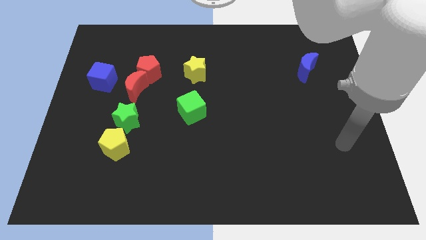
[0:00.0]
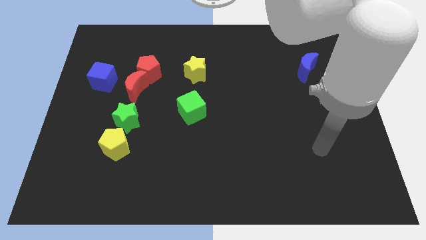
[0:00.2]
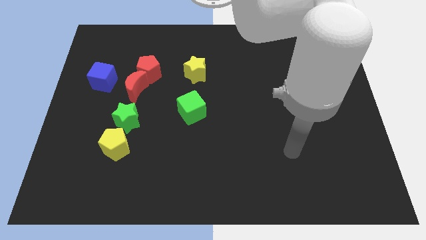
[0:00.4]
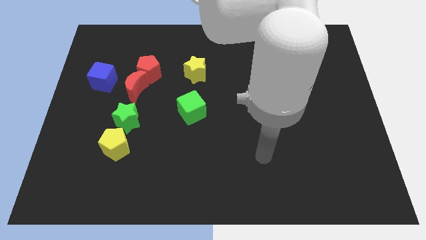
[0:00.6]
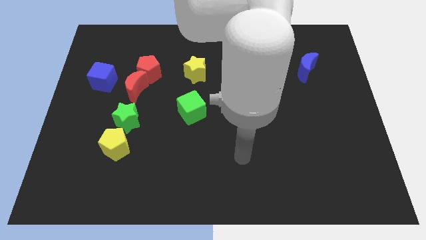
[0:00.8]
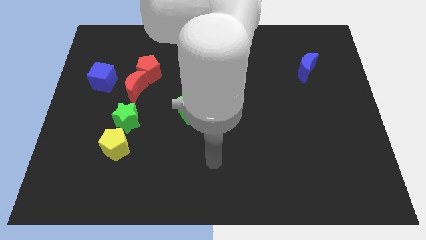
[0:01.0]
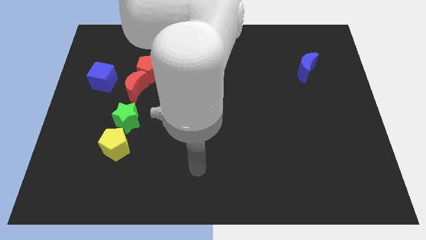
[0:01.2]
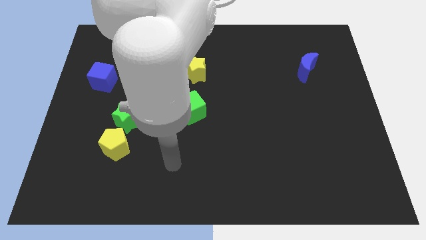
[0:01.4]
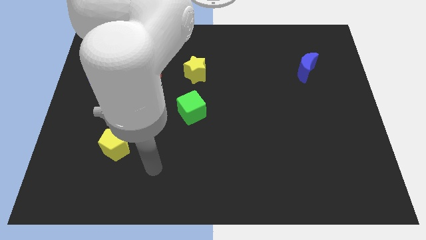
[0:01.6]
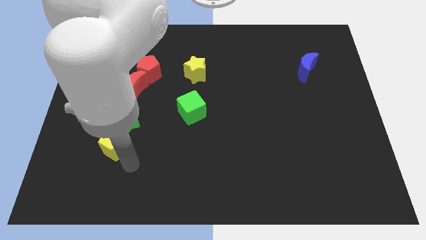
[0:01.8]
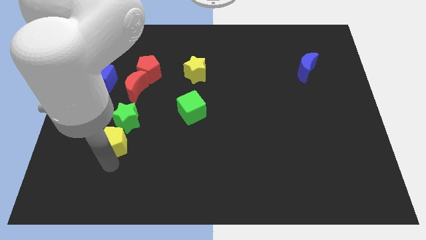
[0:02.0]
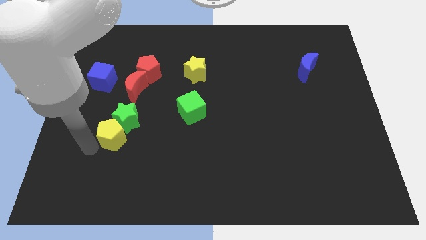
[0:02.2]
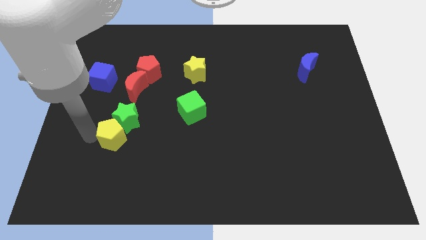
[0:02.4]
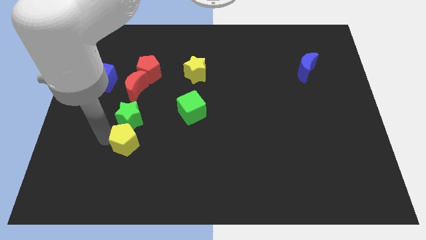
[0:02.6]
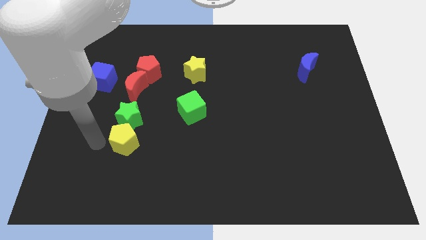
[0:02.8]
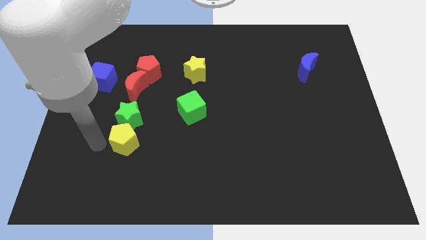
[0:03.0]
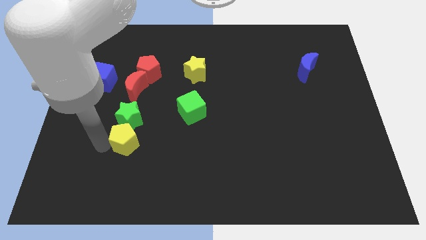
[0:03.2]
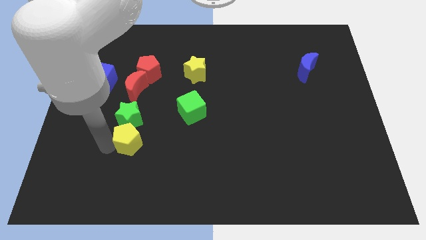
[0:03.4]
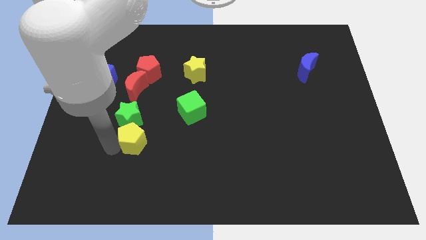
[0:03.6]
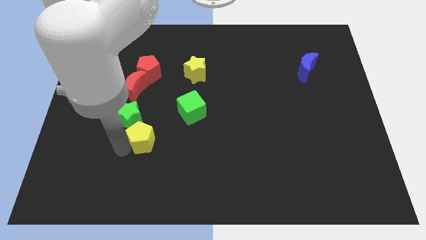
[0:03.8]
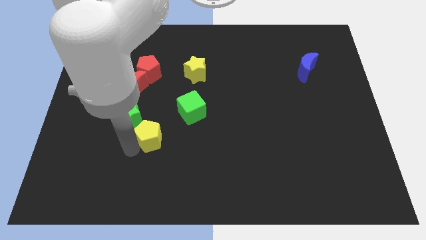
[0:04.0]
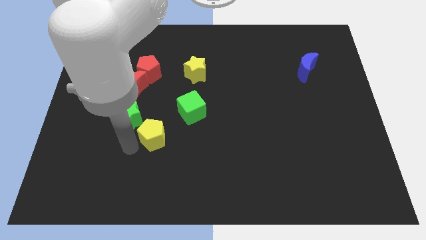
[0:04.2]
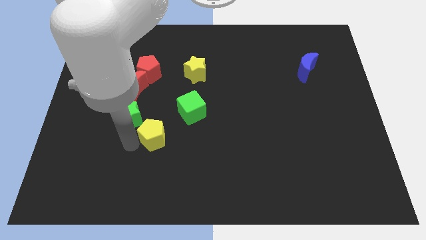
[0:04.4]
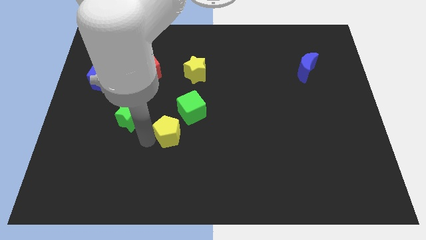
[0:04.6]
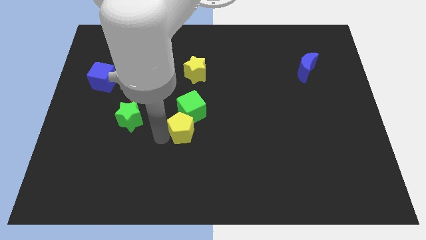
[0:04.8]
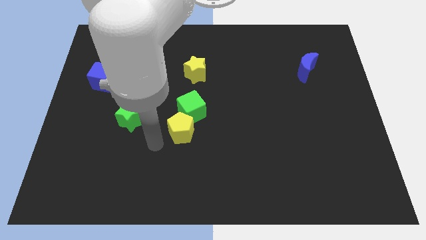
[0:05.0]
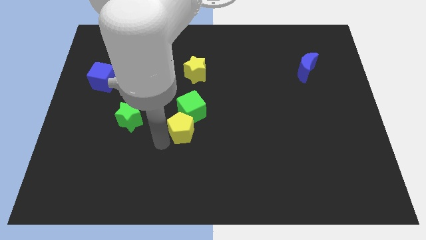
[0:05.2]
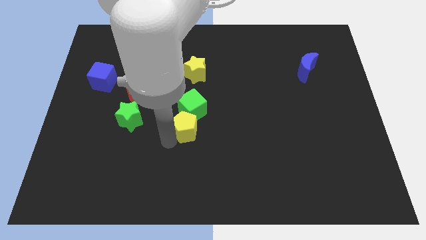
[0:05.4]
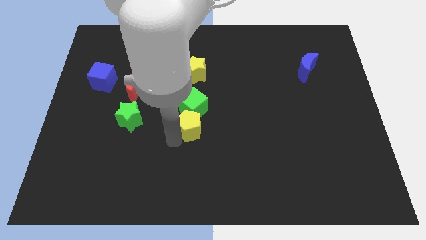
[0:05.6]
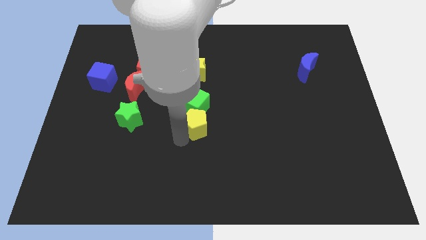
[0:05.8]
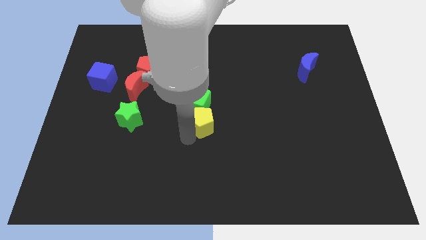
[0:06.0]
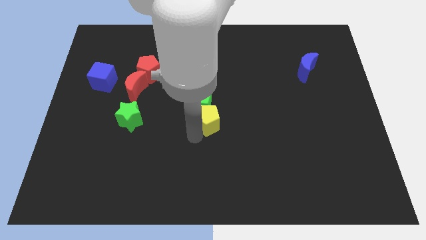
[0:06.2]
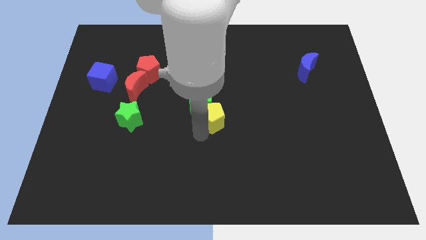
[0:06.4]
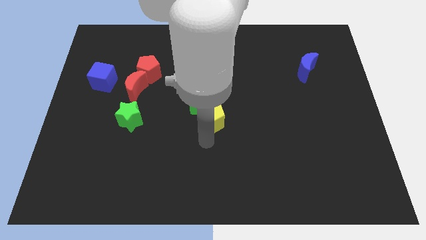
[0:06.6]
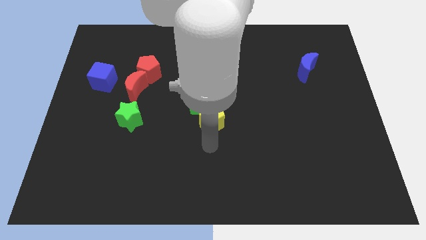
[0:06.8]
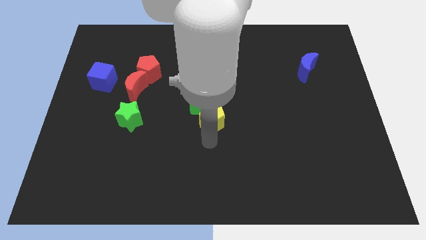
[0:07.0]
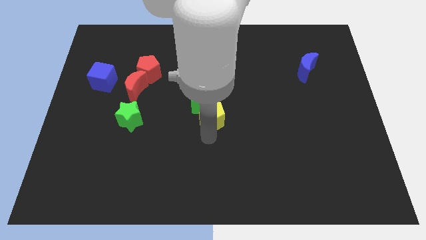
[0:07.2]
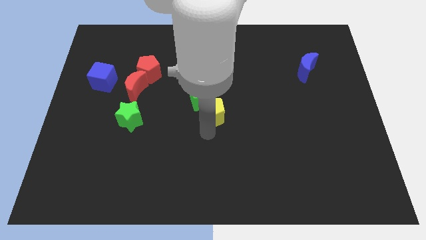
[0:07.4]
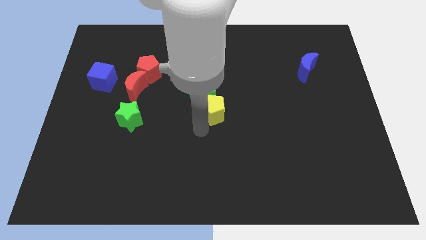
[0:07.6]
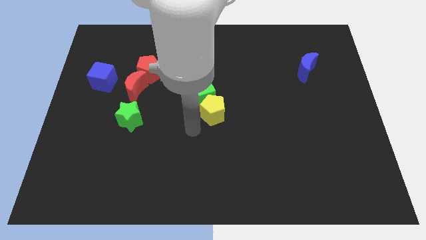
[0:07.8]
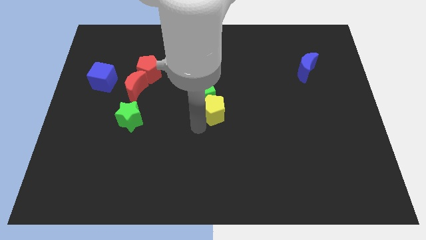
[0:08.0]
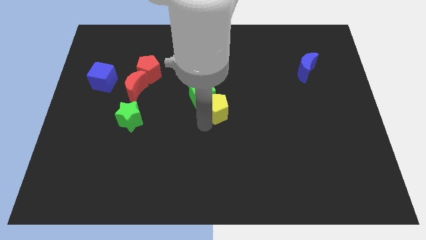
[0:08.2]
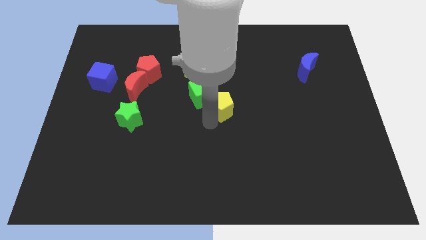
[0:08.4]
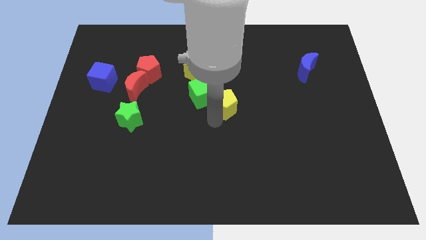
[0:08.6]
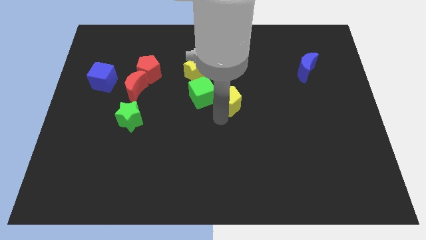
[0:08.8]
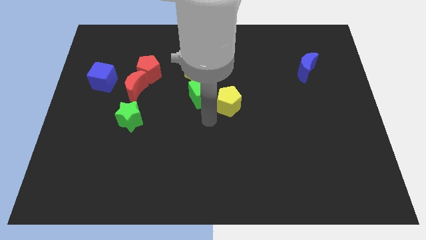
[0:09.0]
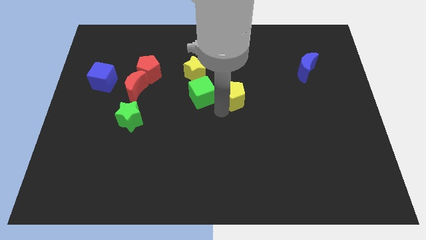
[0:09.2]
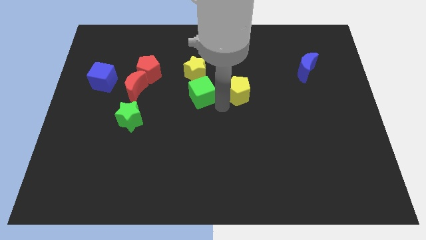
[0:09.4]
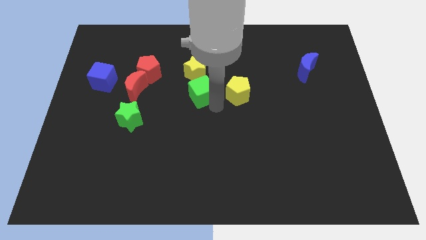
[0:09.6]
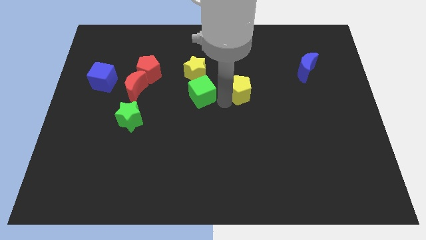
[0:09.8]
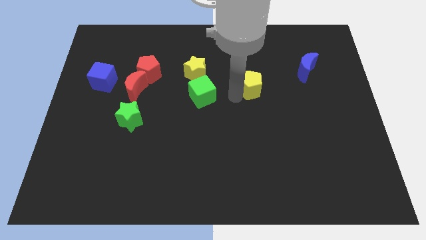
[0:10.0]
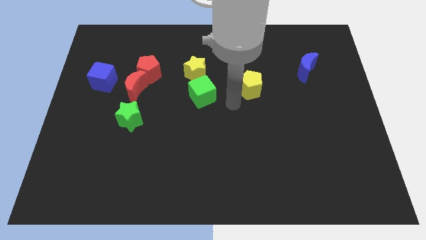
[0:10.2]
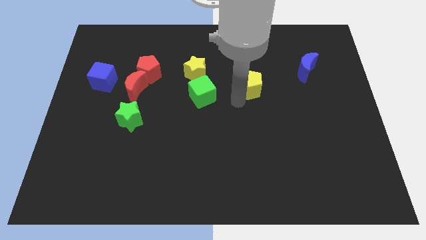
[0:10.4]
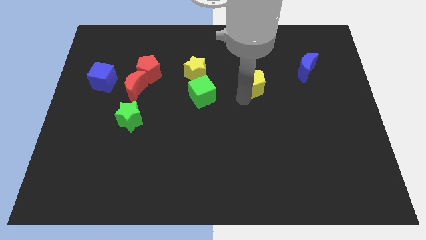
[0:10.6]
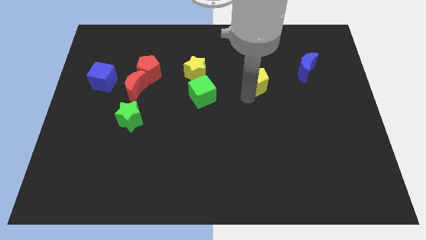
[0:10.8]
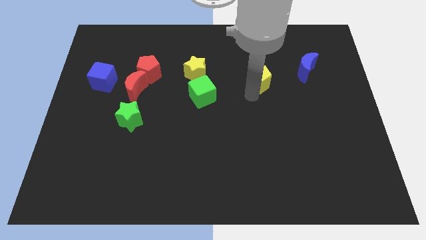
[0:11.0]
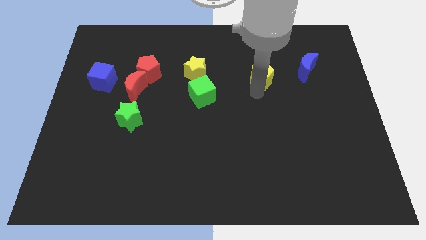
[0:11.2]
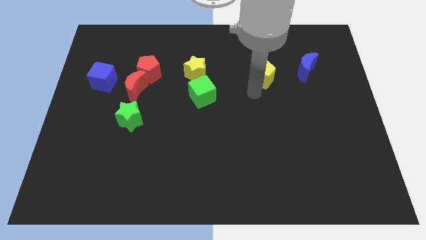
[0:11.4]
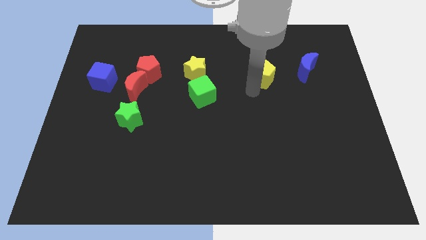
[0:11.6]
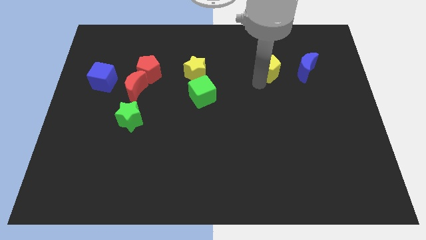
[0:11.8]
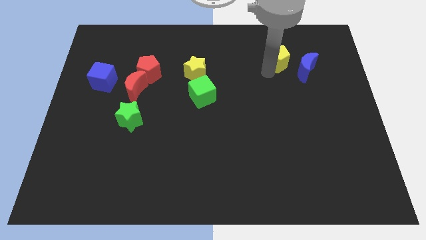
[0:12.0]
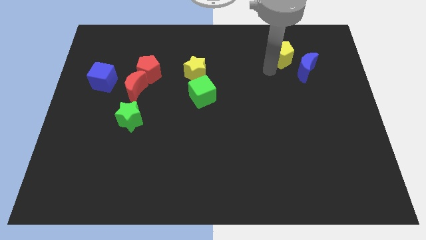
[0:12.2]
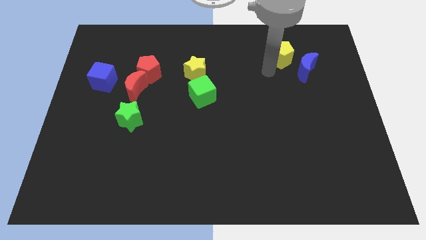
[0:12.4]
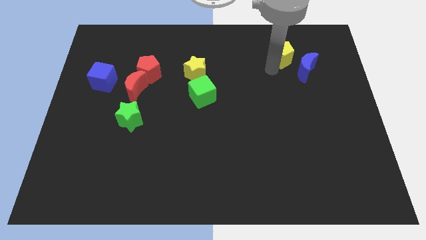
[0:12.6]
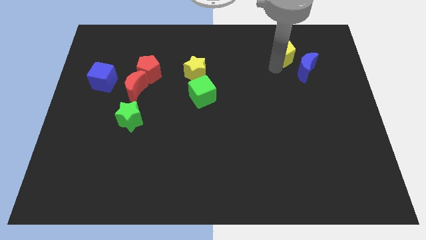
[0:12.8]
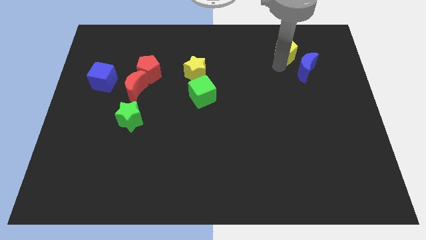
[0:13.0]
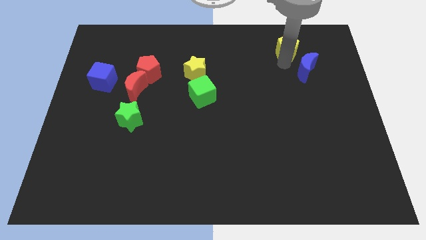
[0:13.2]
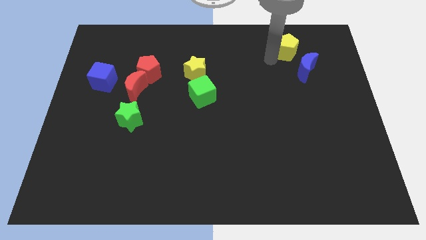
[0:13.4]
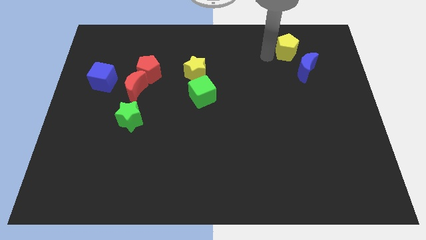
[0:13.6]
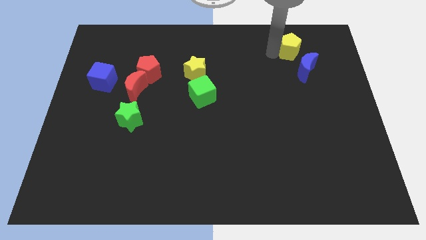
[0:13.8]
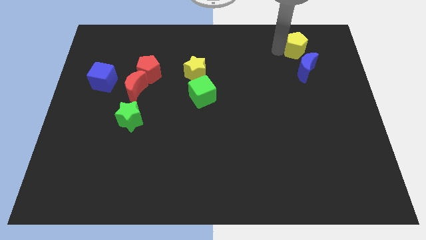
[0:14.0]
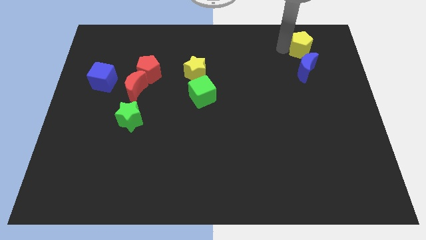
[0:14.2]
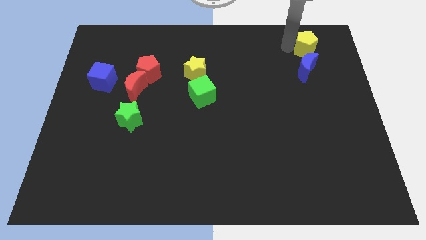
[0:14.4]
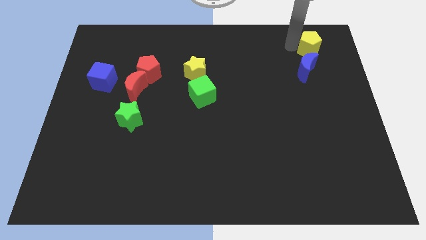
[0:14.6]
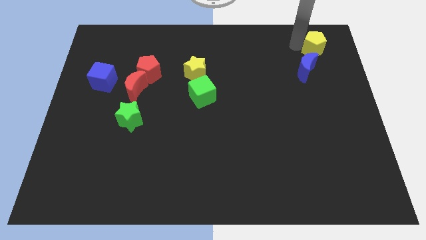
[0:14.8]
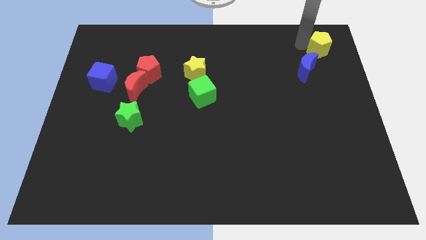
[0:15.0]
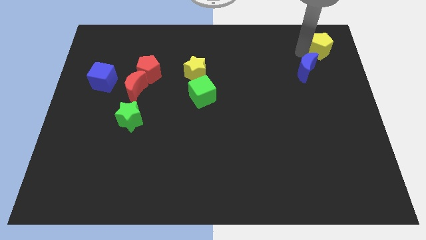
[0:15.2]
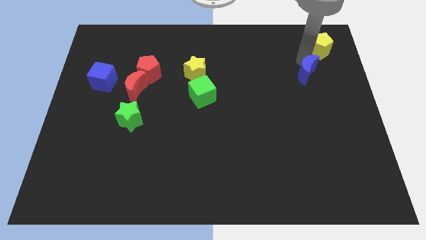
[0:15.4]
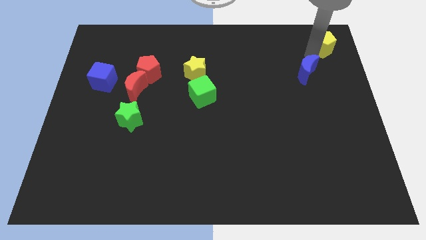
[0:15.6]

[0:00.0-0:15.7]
slide the yellow pentagon to the upper right corner
